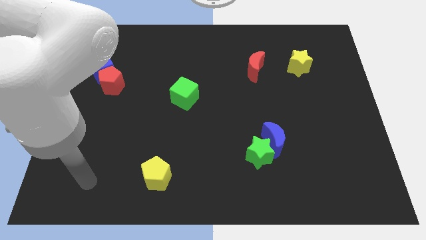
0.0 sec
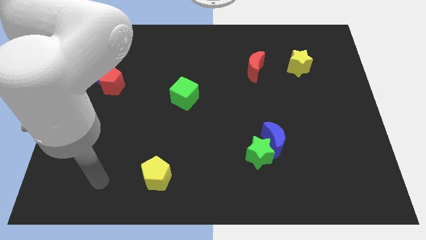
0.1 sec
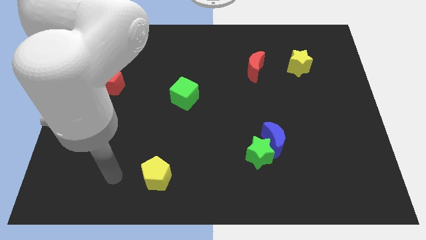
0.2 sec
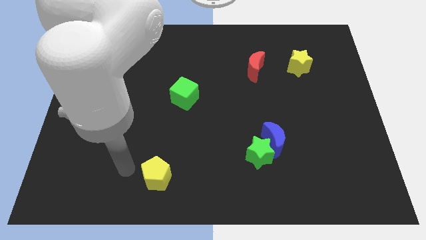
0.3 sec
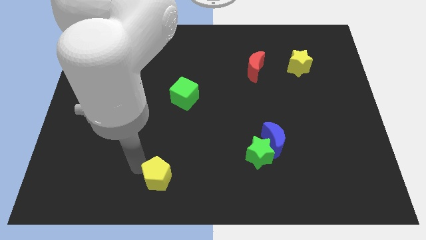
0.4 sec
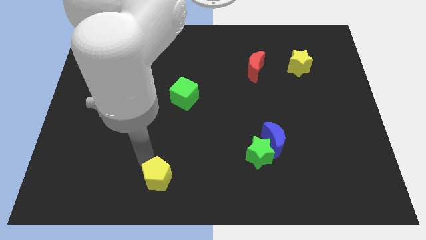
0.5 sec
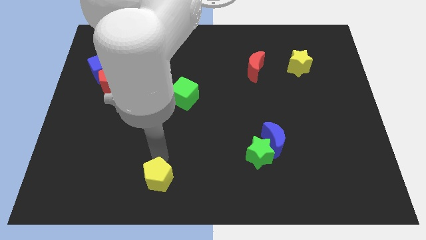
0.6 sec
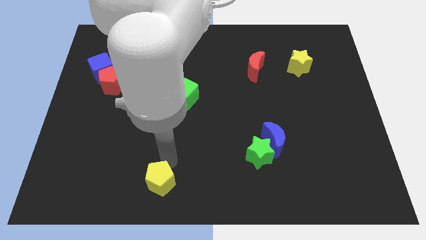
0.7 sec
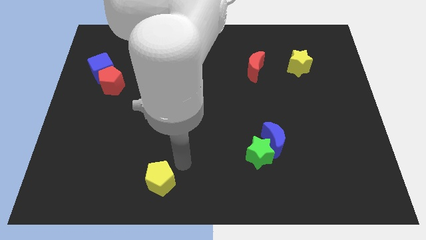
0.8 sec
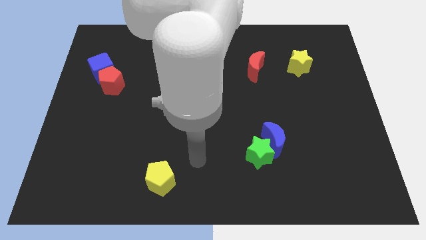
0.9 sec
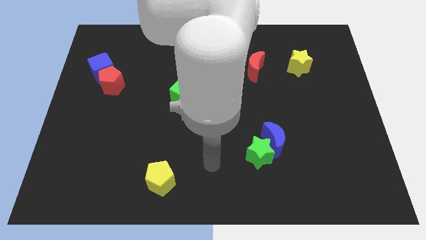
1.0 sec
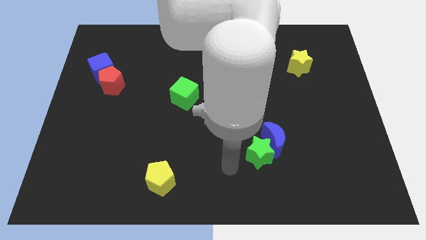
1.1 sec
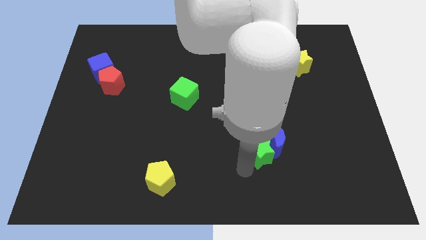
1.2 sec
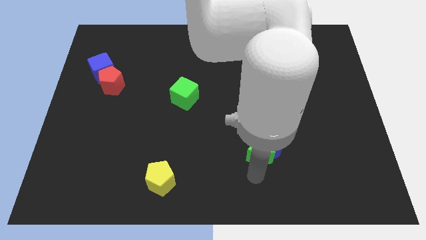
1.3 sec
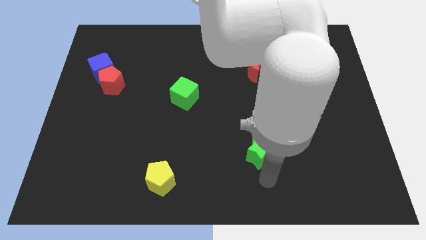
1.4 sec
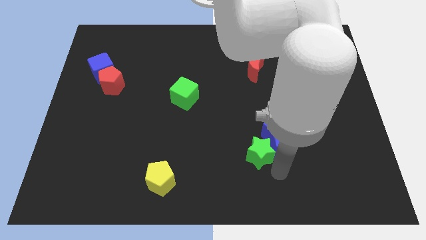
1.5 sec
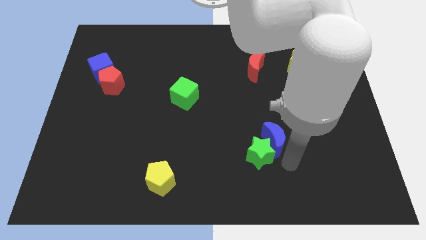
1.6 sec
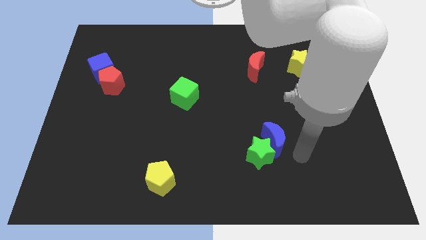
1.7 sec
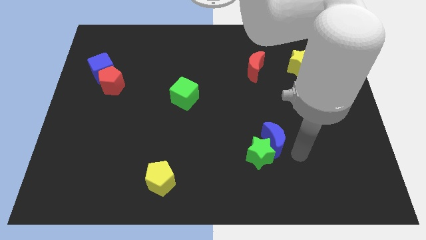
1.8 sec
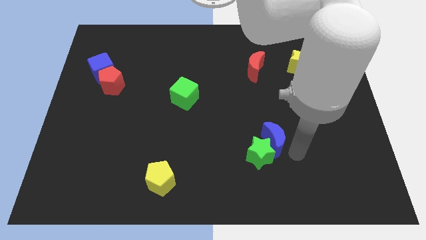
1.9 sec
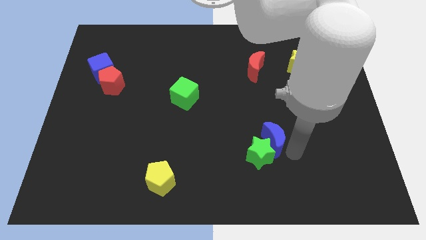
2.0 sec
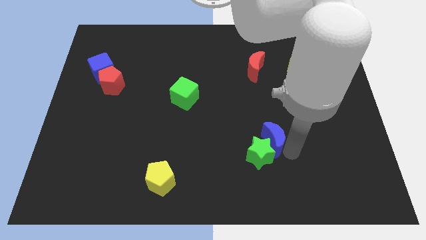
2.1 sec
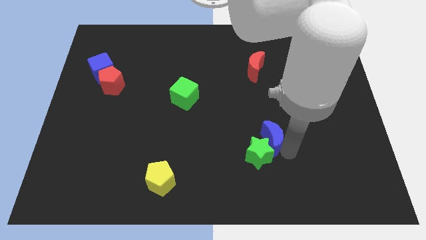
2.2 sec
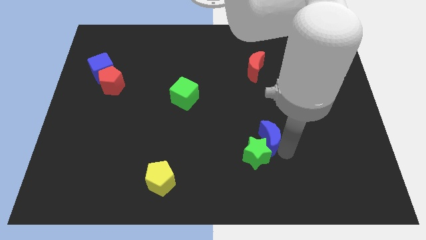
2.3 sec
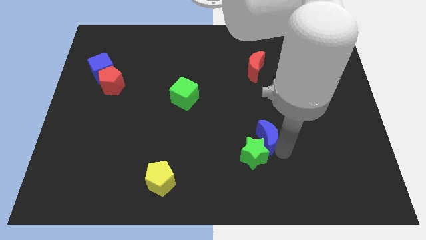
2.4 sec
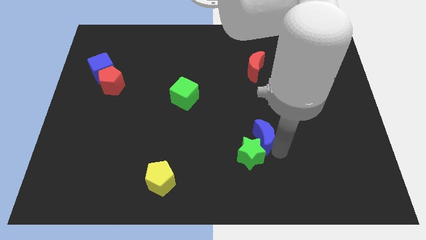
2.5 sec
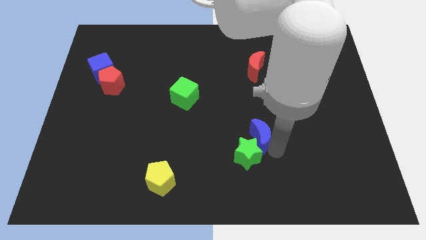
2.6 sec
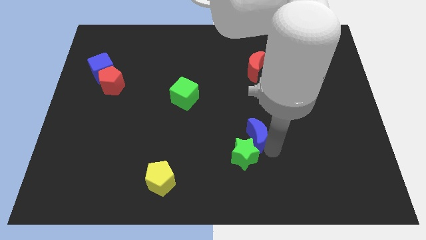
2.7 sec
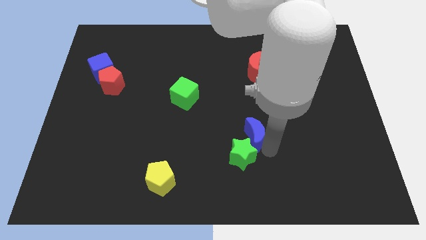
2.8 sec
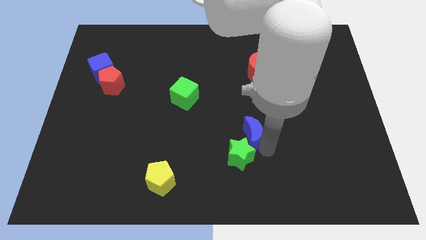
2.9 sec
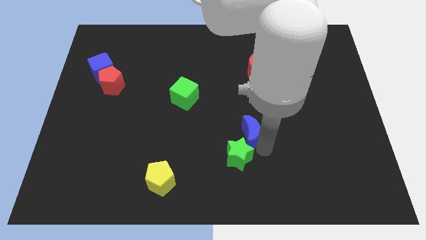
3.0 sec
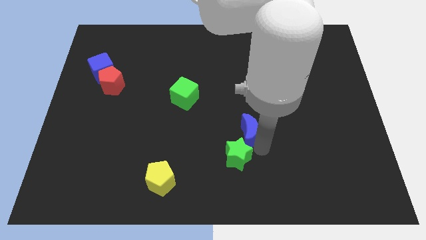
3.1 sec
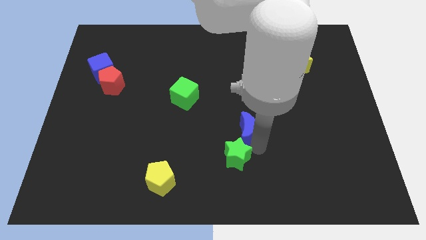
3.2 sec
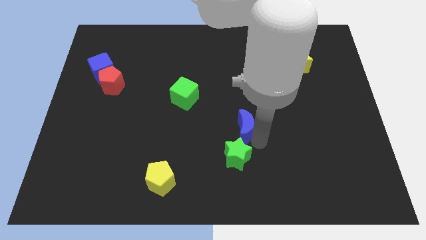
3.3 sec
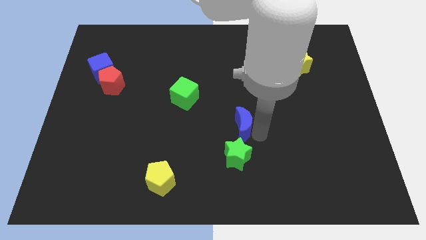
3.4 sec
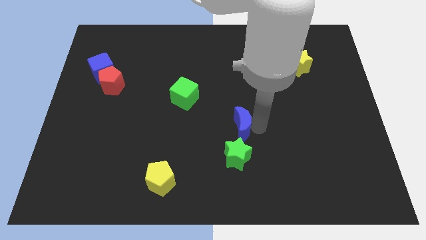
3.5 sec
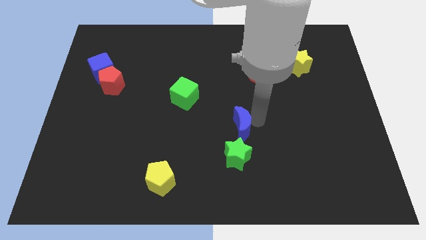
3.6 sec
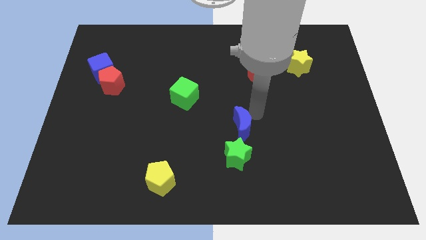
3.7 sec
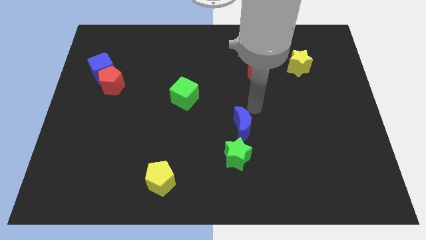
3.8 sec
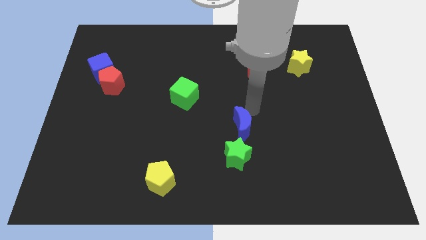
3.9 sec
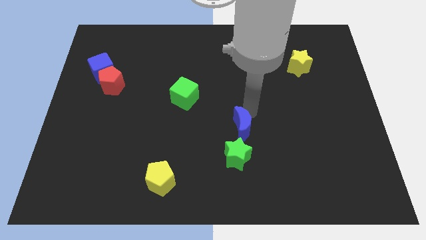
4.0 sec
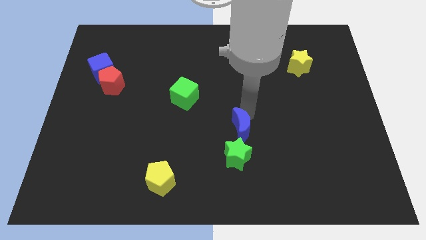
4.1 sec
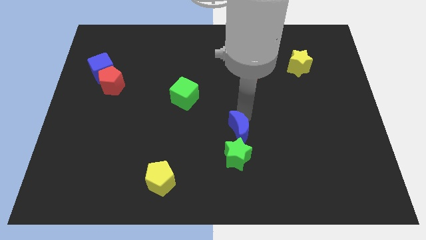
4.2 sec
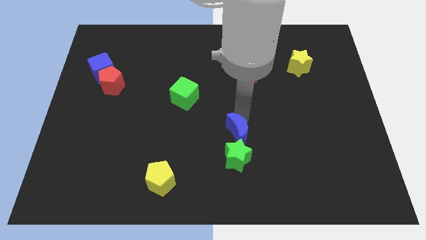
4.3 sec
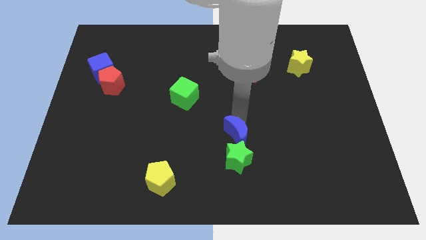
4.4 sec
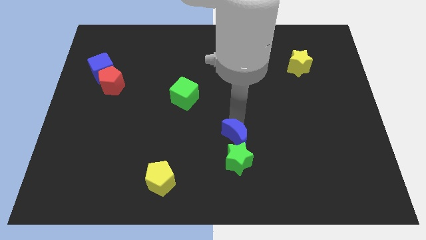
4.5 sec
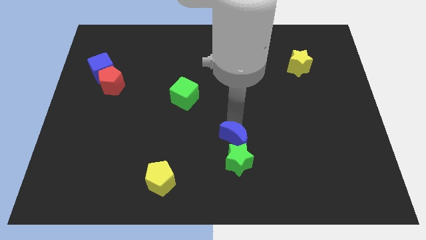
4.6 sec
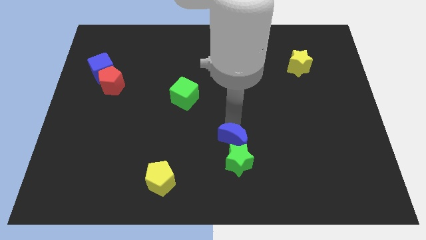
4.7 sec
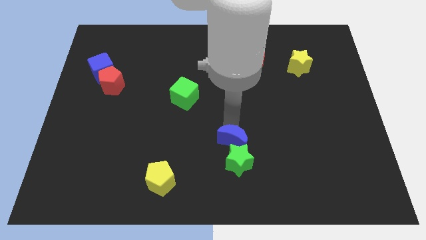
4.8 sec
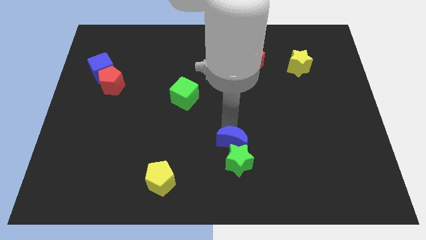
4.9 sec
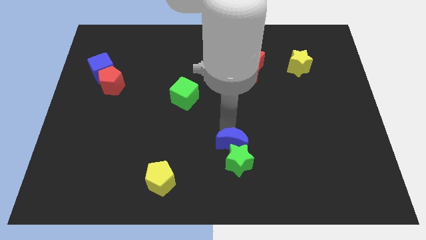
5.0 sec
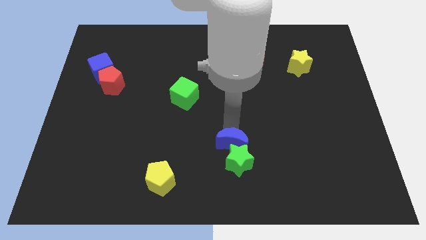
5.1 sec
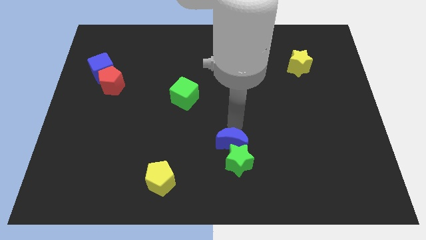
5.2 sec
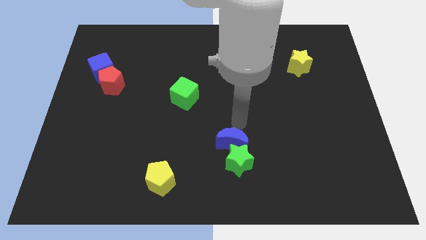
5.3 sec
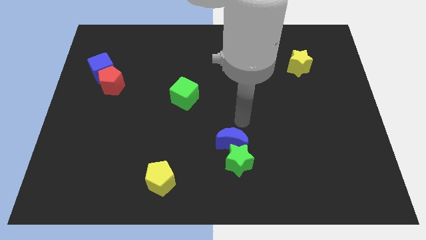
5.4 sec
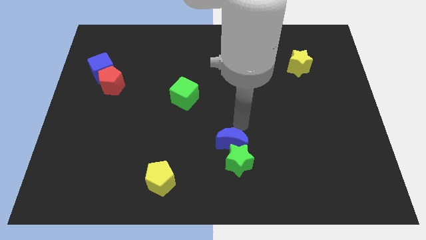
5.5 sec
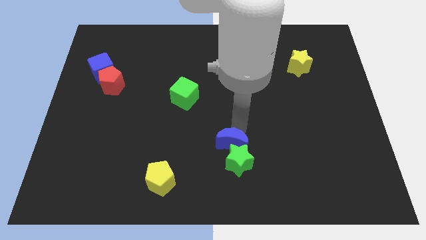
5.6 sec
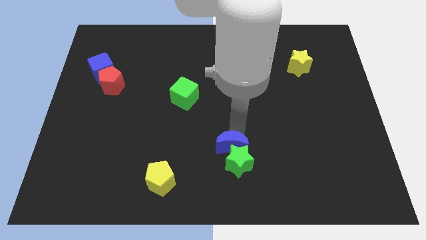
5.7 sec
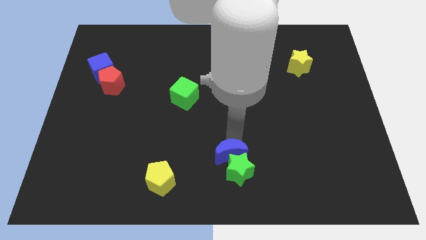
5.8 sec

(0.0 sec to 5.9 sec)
push the blue moon to the bottom side
